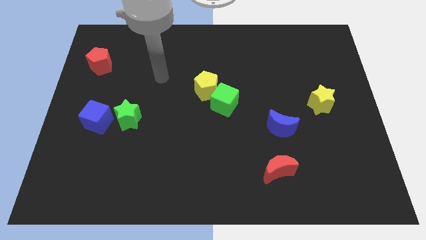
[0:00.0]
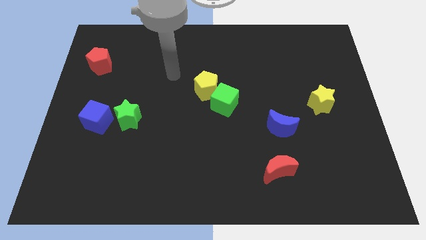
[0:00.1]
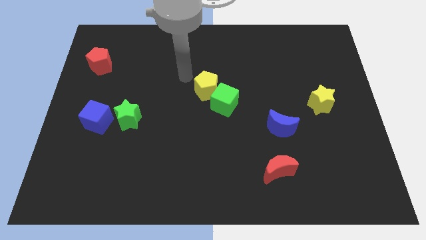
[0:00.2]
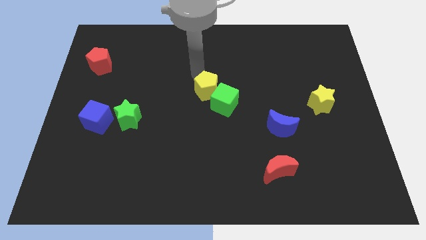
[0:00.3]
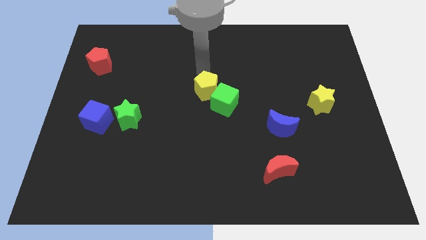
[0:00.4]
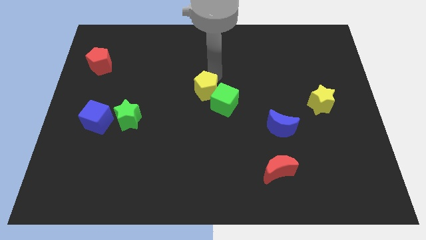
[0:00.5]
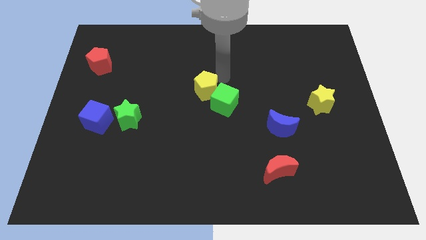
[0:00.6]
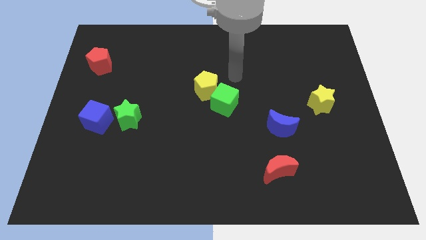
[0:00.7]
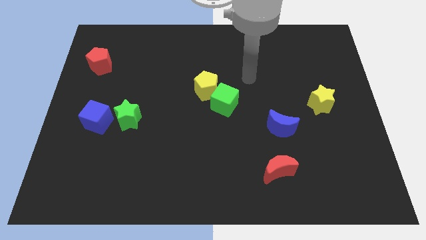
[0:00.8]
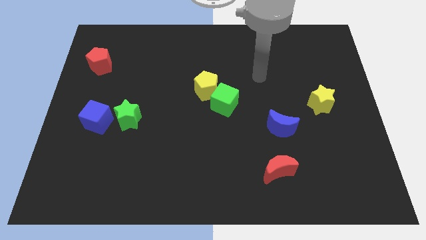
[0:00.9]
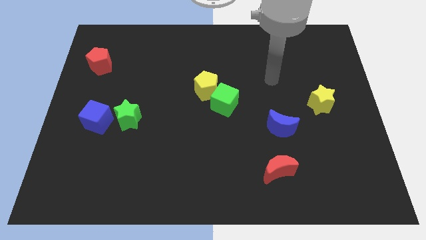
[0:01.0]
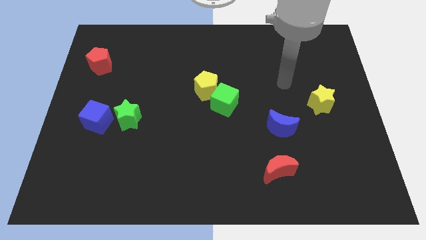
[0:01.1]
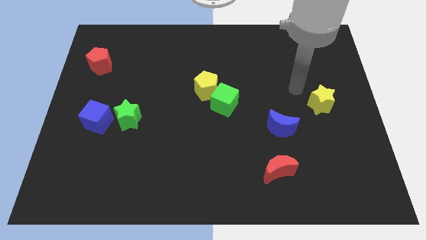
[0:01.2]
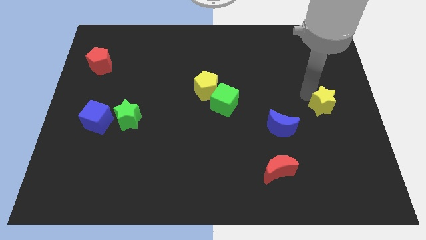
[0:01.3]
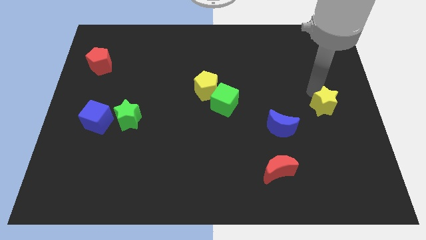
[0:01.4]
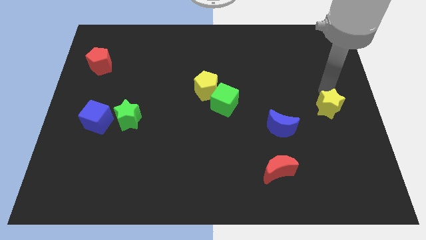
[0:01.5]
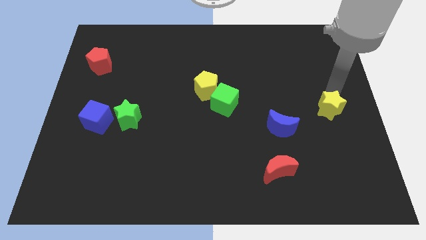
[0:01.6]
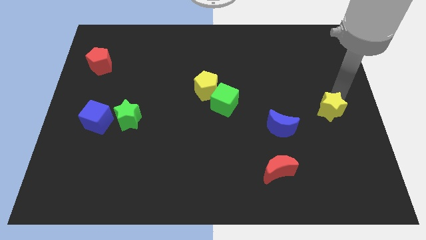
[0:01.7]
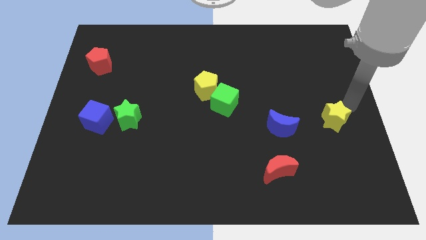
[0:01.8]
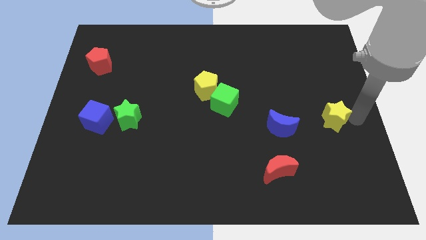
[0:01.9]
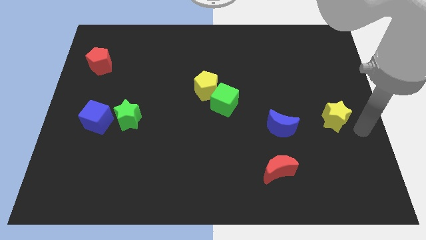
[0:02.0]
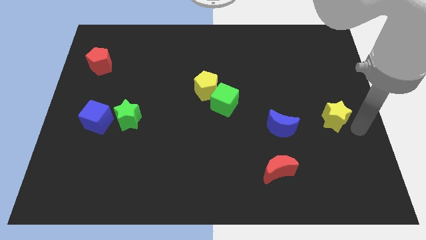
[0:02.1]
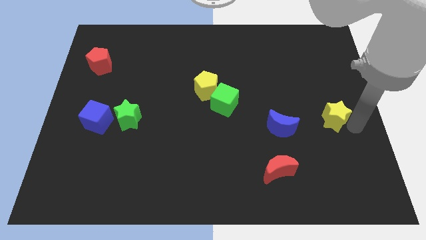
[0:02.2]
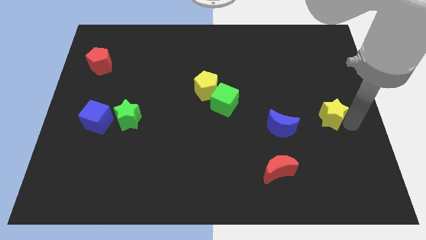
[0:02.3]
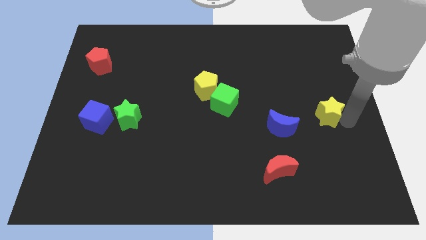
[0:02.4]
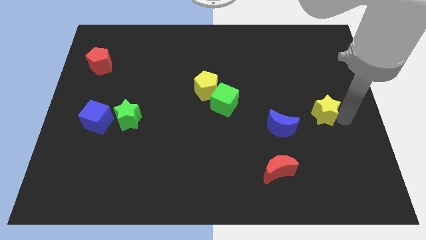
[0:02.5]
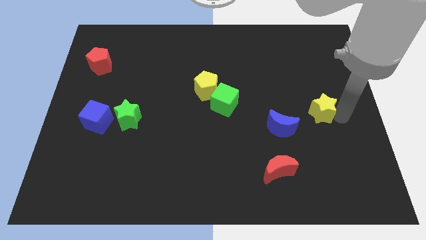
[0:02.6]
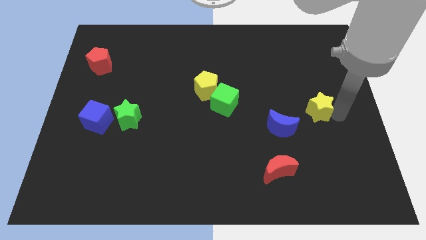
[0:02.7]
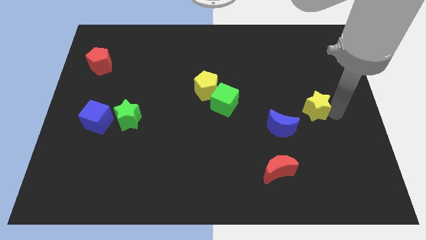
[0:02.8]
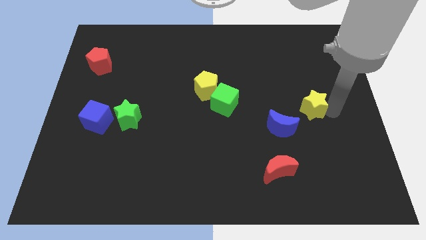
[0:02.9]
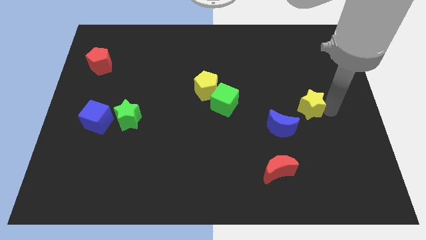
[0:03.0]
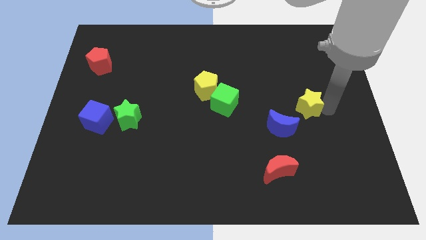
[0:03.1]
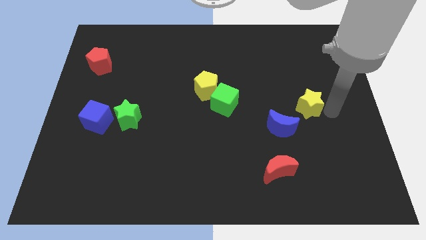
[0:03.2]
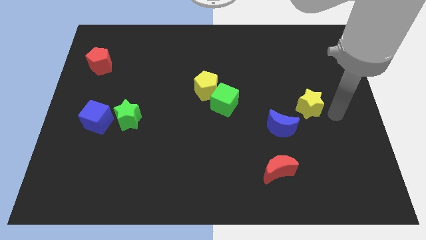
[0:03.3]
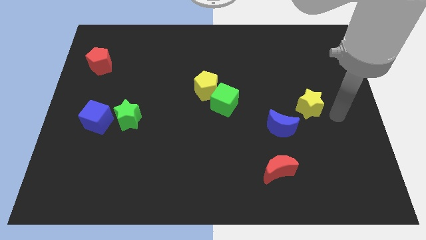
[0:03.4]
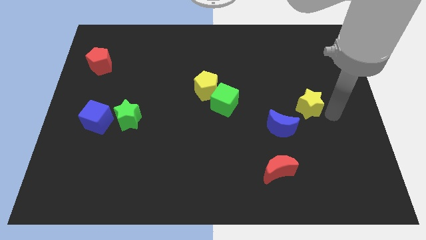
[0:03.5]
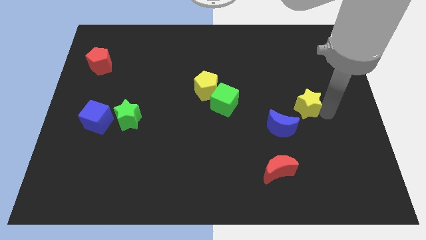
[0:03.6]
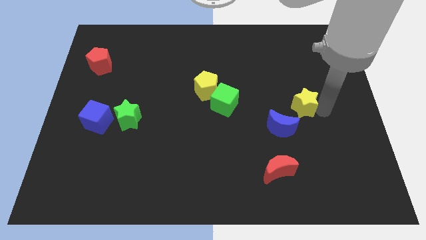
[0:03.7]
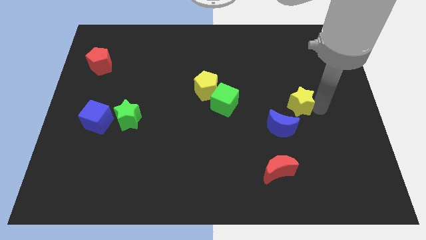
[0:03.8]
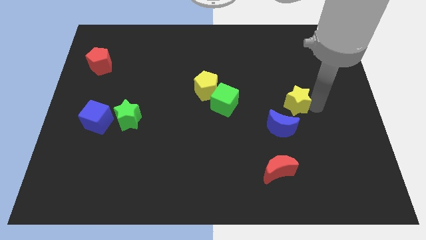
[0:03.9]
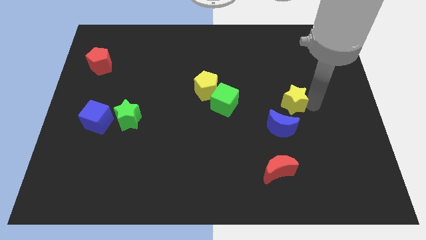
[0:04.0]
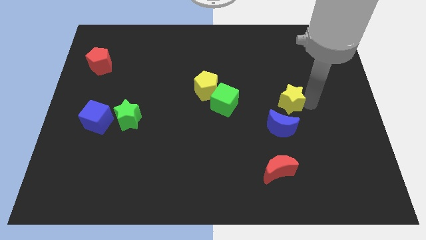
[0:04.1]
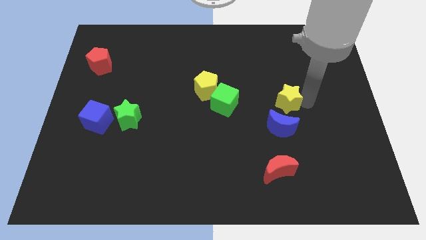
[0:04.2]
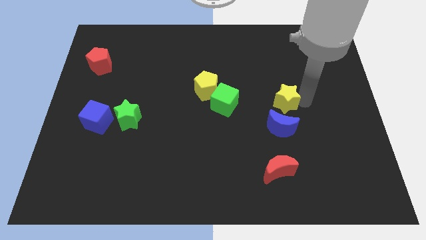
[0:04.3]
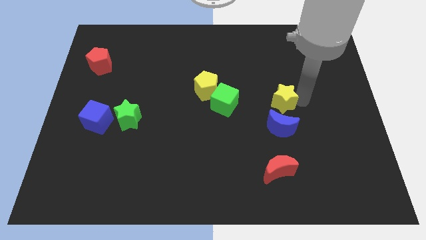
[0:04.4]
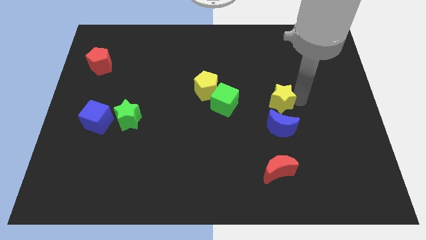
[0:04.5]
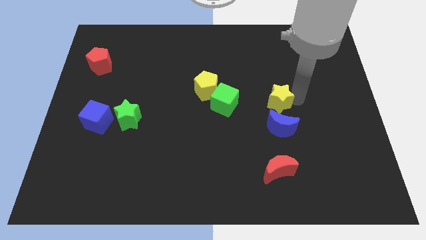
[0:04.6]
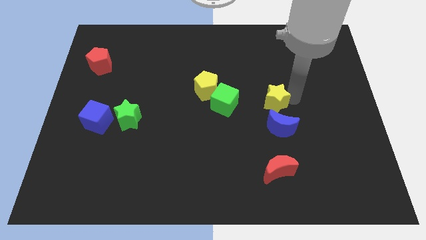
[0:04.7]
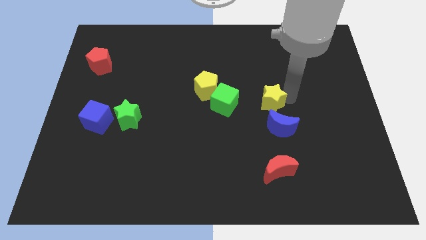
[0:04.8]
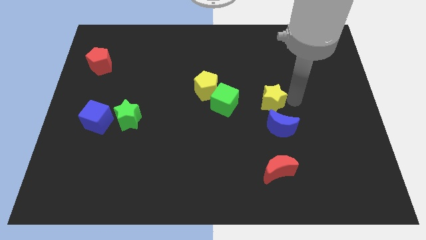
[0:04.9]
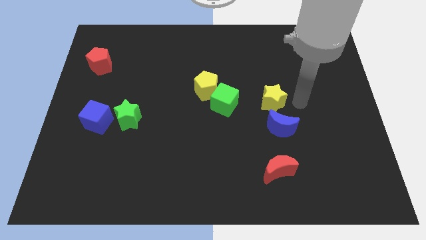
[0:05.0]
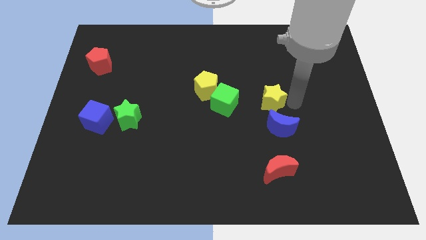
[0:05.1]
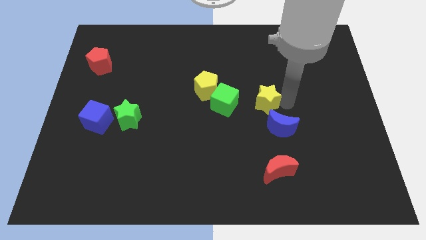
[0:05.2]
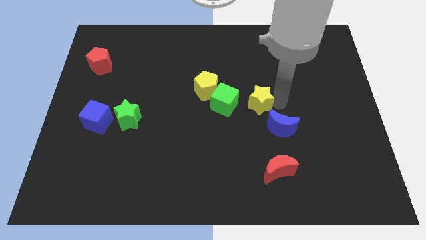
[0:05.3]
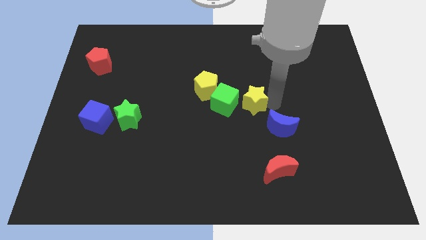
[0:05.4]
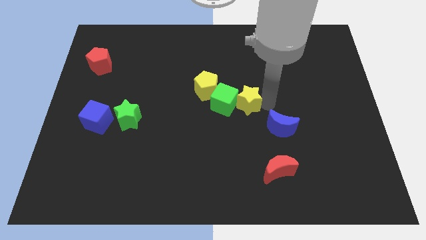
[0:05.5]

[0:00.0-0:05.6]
put the yellow star close to the green cube

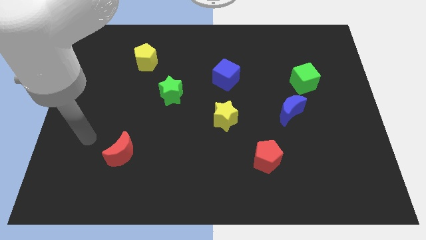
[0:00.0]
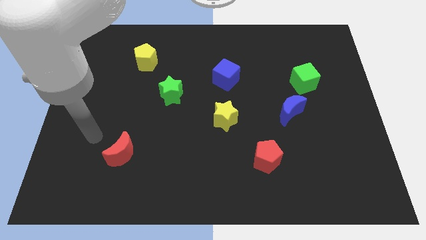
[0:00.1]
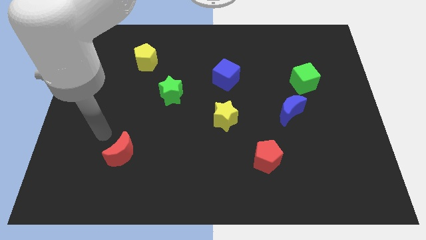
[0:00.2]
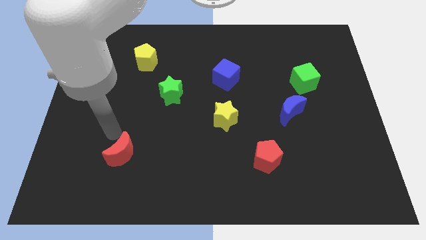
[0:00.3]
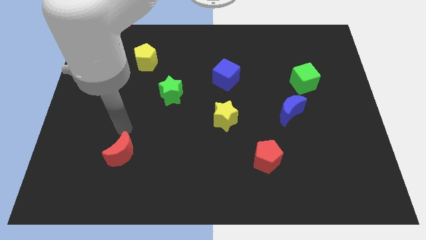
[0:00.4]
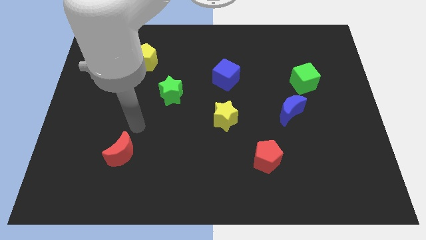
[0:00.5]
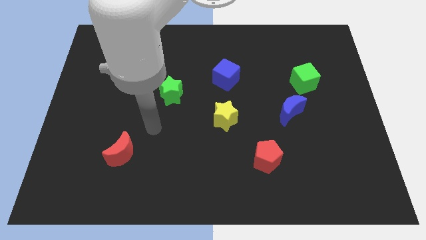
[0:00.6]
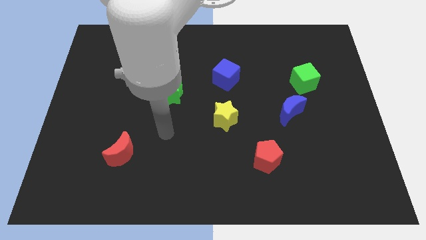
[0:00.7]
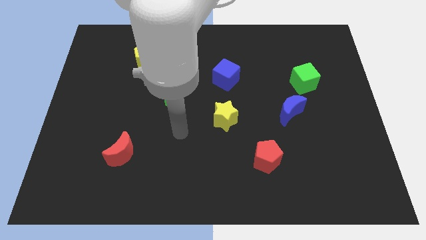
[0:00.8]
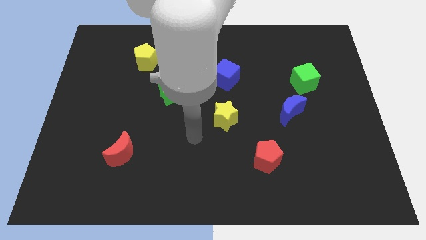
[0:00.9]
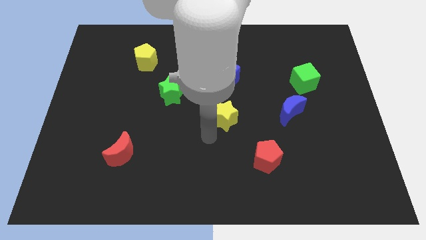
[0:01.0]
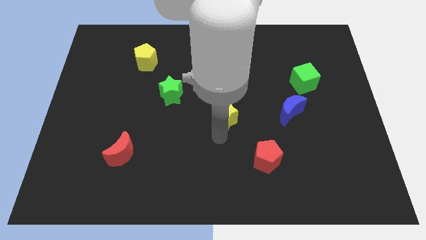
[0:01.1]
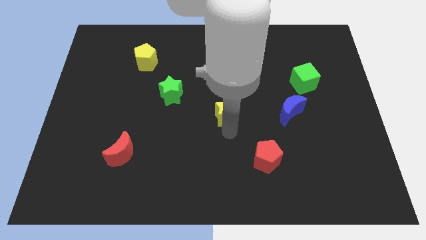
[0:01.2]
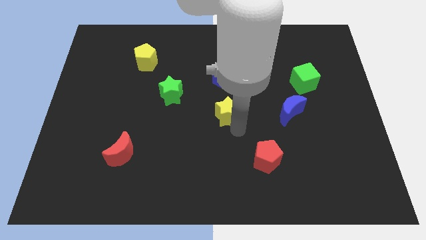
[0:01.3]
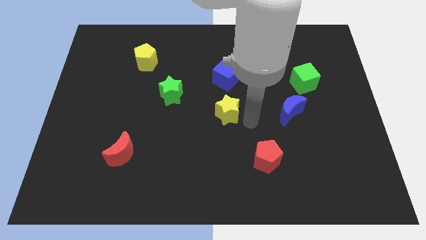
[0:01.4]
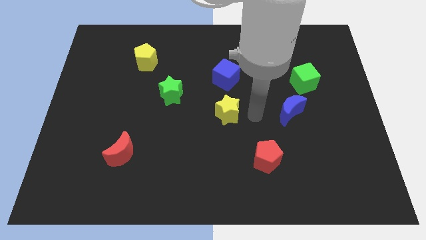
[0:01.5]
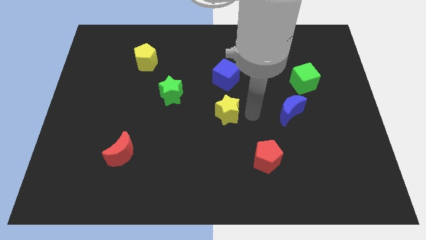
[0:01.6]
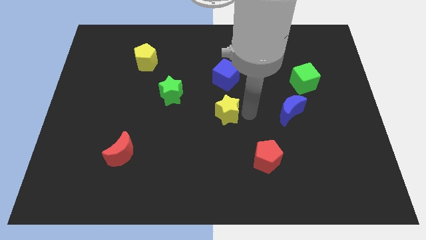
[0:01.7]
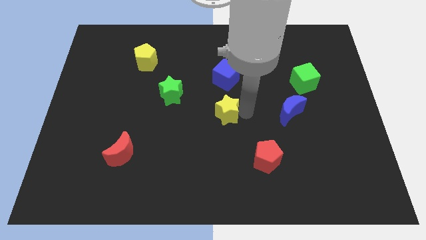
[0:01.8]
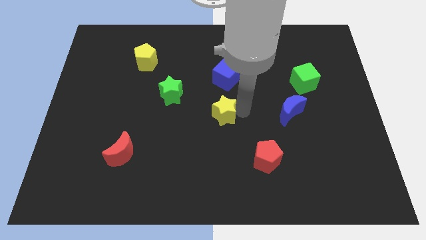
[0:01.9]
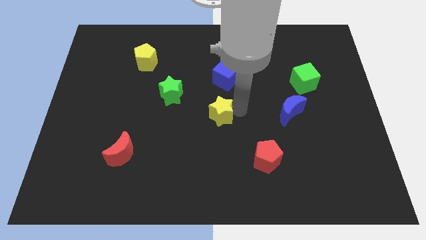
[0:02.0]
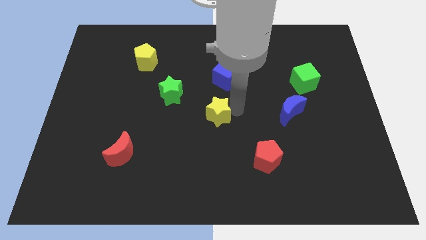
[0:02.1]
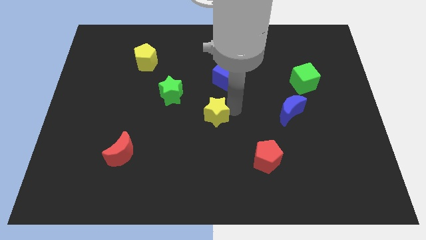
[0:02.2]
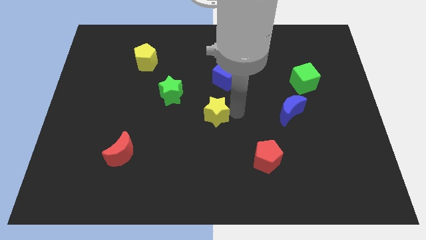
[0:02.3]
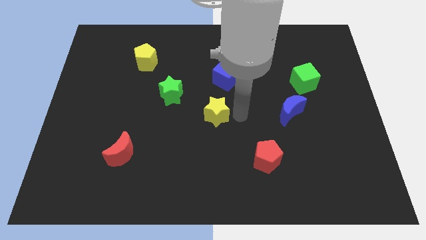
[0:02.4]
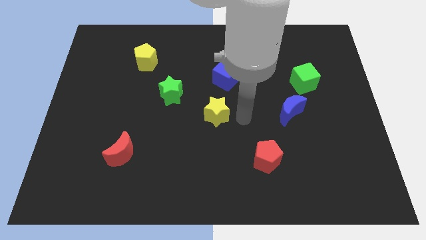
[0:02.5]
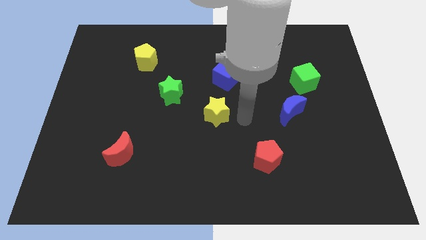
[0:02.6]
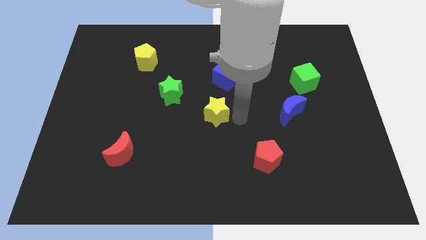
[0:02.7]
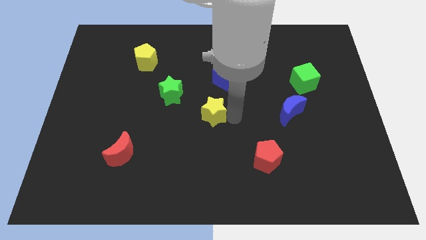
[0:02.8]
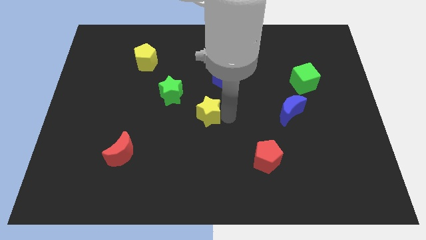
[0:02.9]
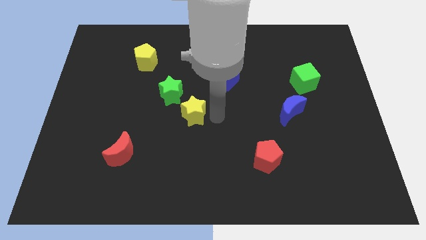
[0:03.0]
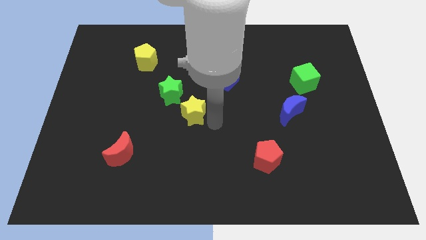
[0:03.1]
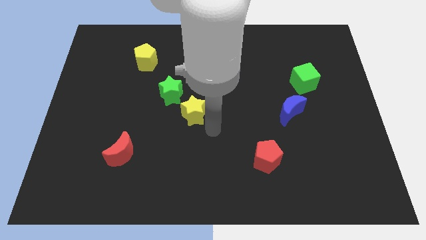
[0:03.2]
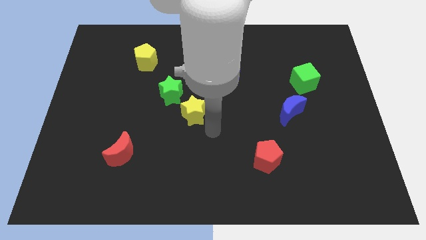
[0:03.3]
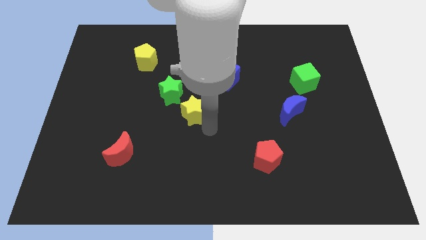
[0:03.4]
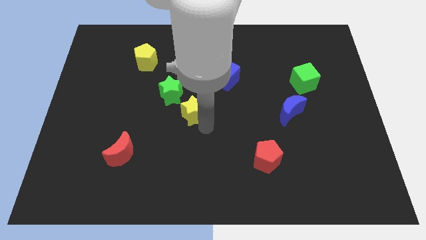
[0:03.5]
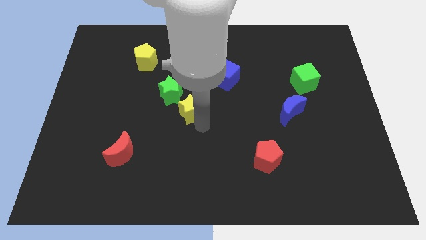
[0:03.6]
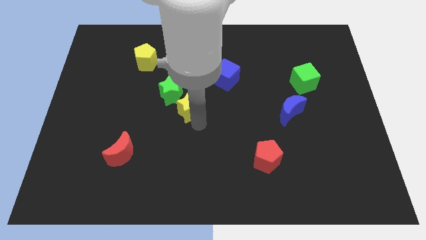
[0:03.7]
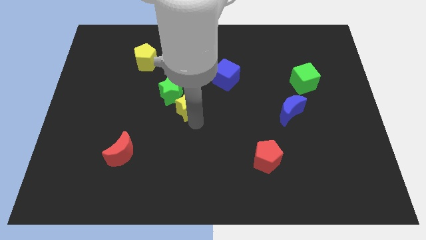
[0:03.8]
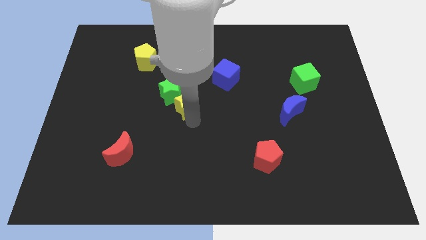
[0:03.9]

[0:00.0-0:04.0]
slide the yellow star next to the green star
